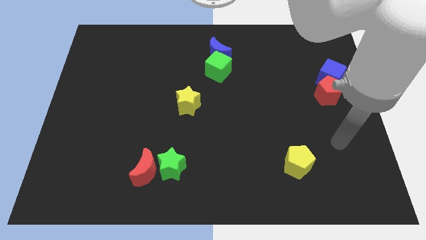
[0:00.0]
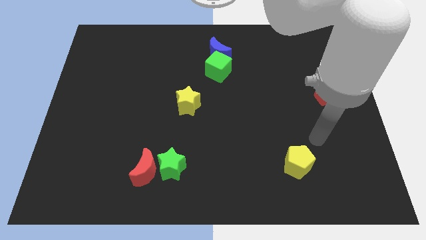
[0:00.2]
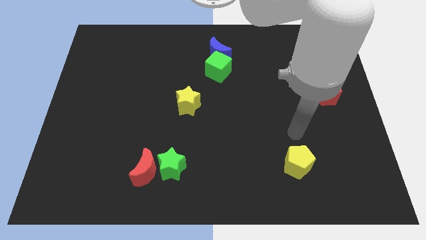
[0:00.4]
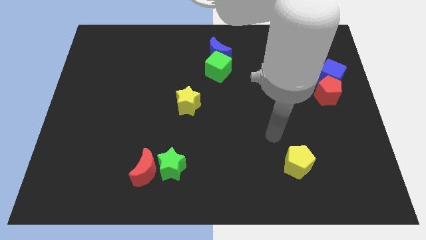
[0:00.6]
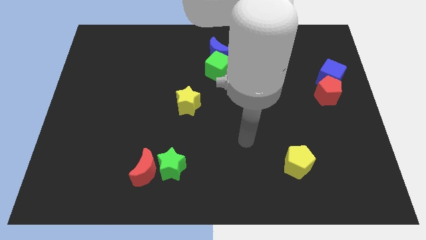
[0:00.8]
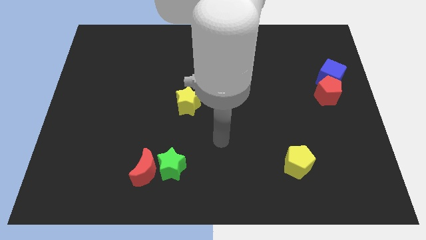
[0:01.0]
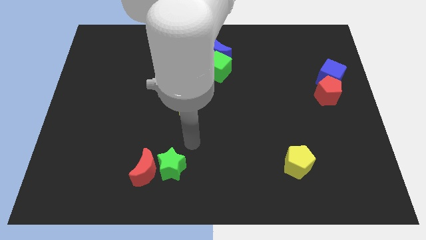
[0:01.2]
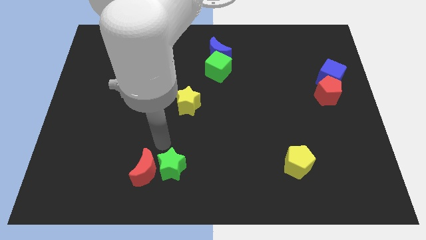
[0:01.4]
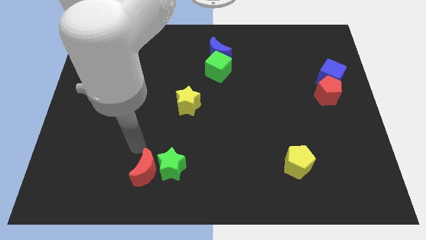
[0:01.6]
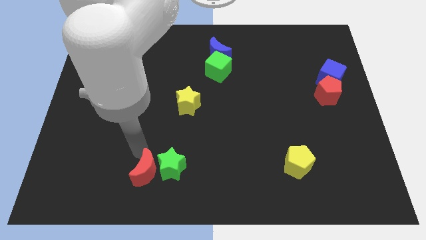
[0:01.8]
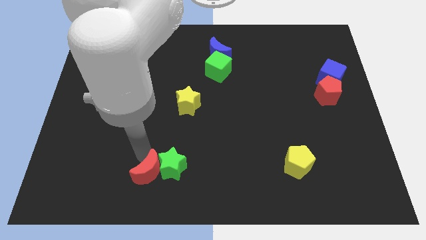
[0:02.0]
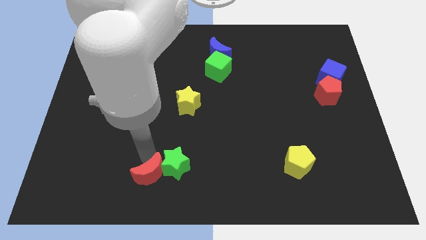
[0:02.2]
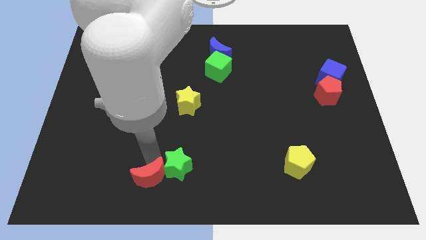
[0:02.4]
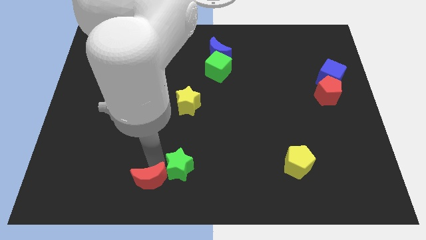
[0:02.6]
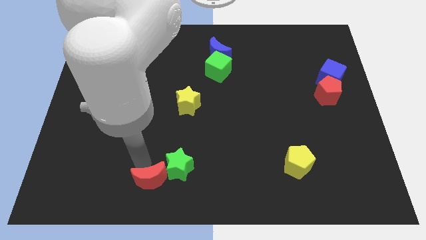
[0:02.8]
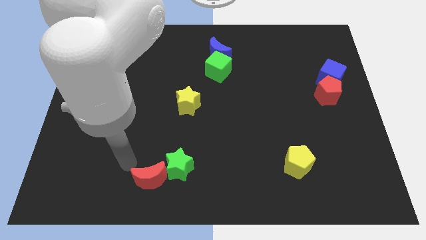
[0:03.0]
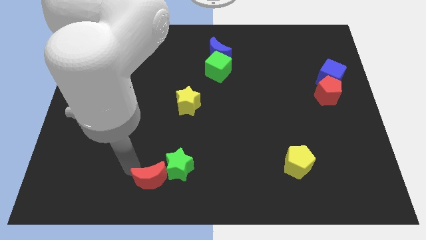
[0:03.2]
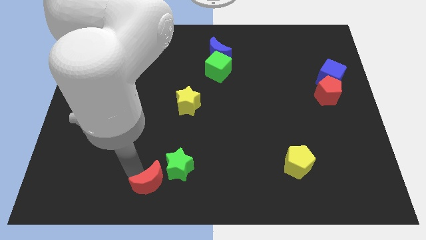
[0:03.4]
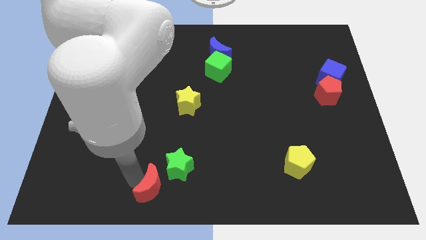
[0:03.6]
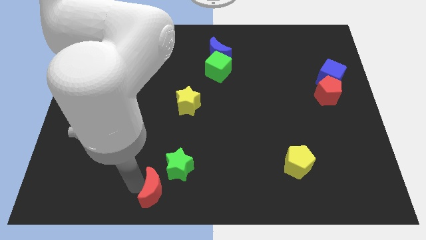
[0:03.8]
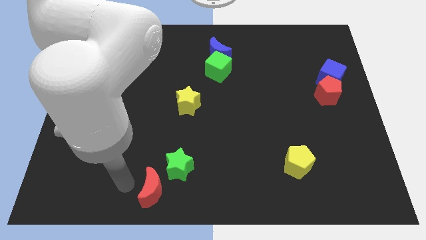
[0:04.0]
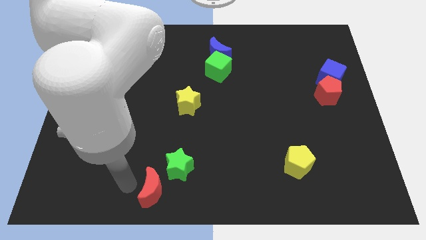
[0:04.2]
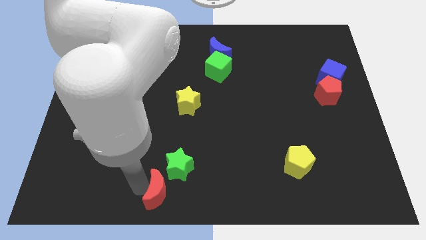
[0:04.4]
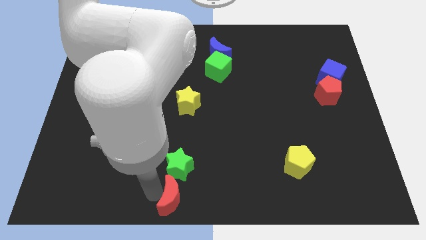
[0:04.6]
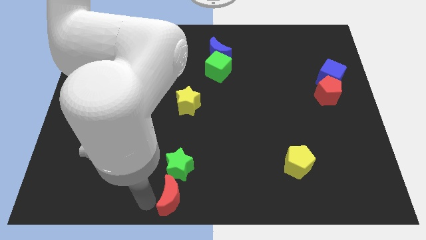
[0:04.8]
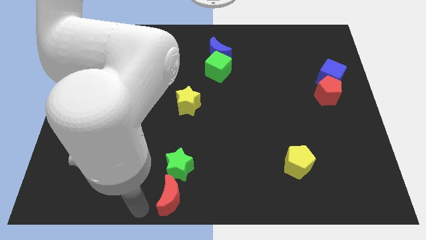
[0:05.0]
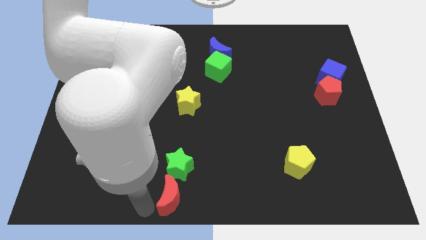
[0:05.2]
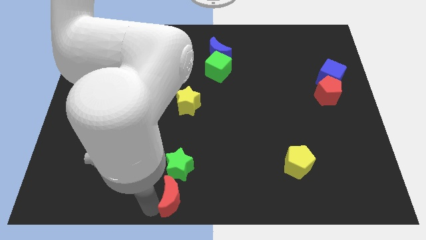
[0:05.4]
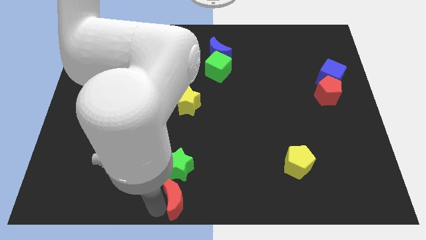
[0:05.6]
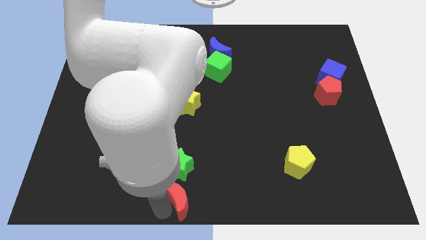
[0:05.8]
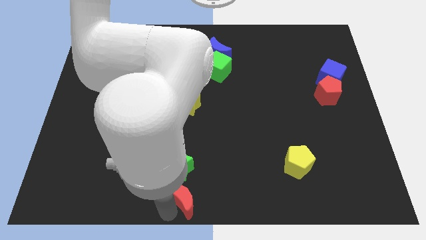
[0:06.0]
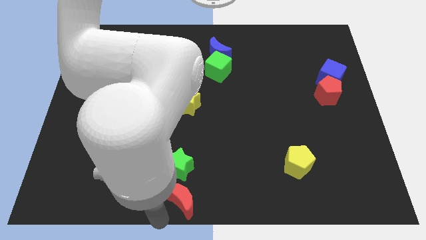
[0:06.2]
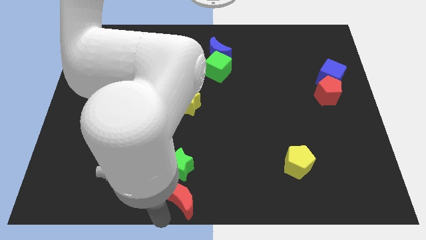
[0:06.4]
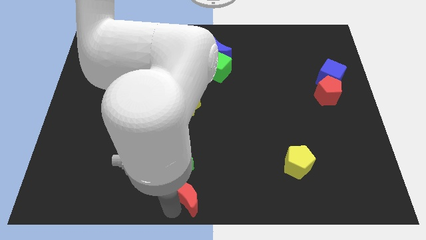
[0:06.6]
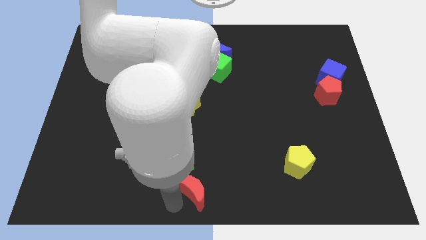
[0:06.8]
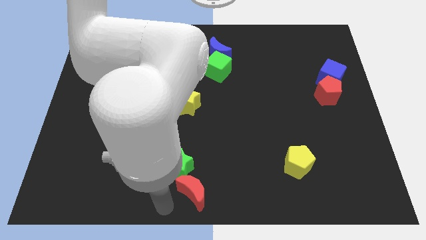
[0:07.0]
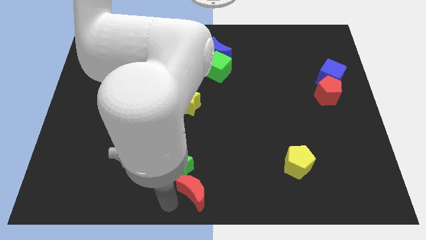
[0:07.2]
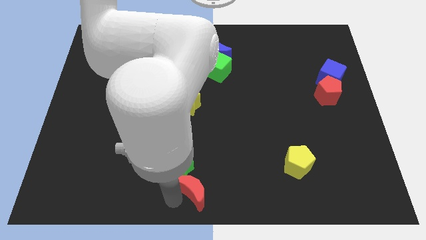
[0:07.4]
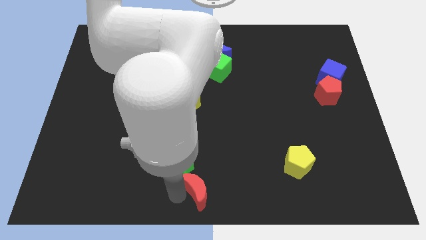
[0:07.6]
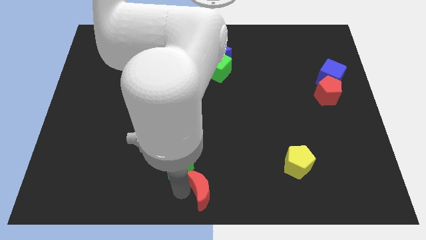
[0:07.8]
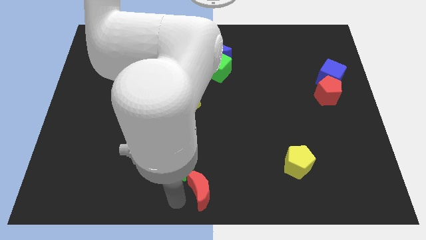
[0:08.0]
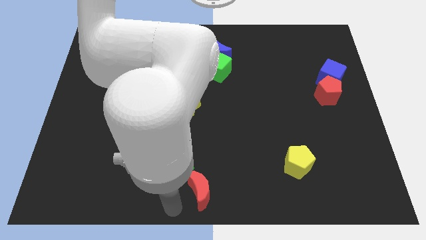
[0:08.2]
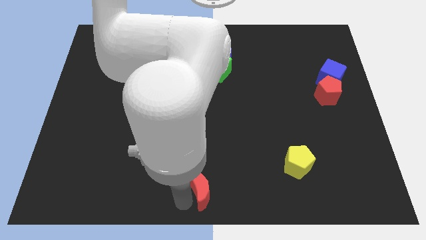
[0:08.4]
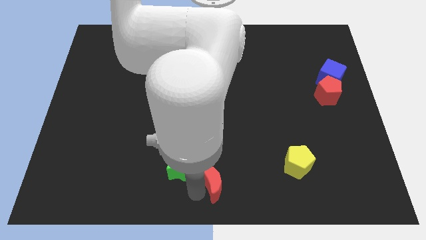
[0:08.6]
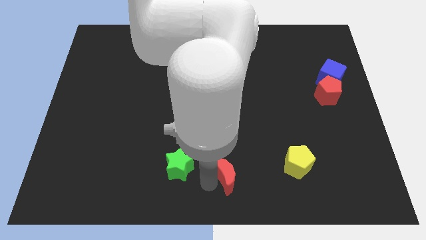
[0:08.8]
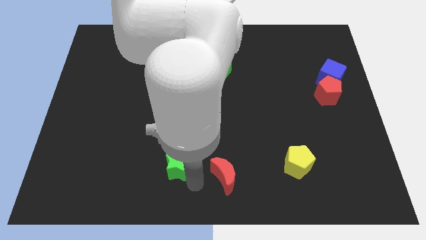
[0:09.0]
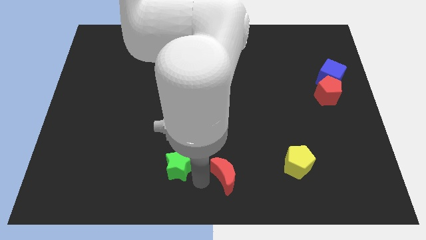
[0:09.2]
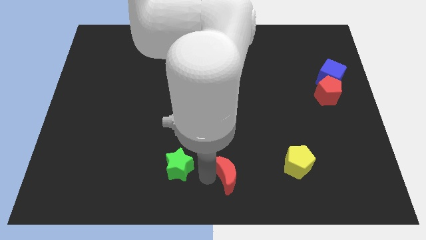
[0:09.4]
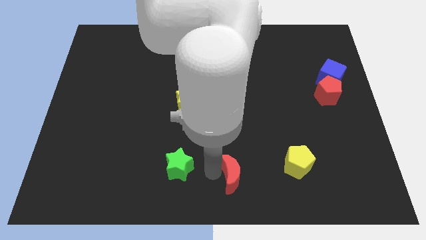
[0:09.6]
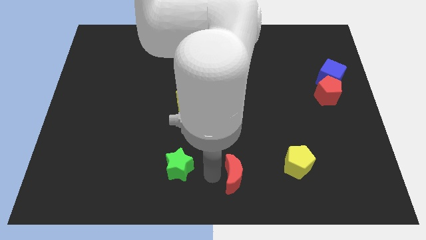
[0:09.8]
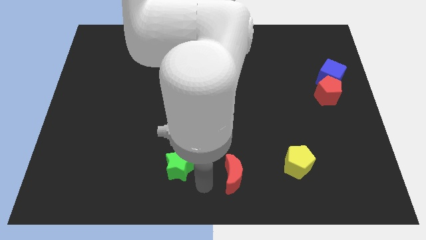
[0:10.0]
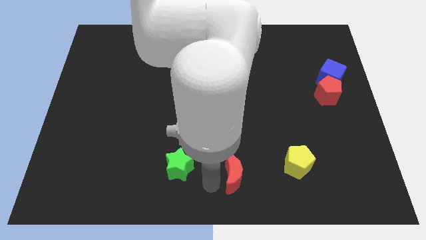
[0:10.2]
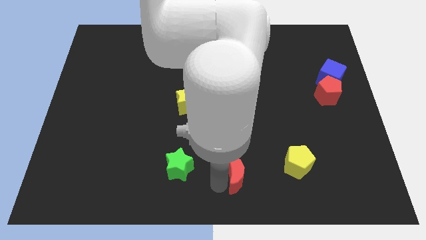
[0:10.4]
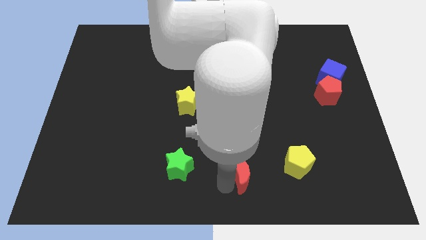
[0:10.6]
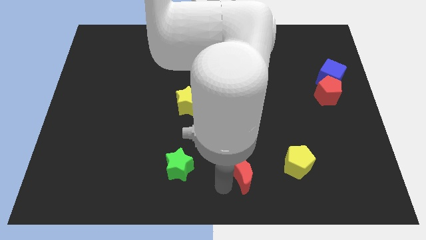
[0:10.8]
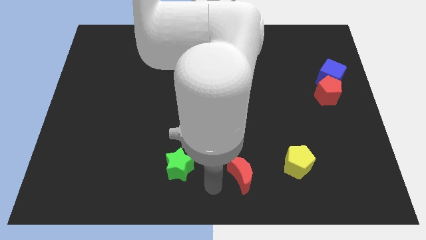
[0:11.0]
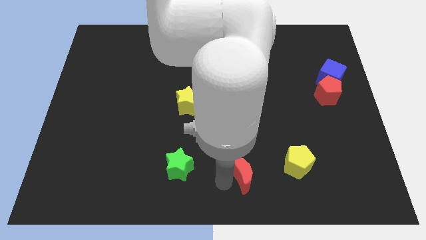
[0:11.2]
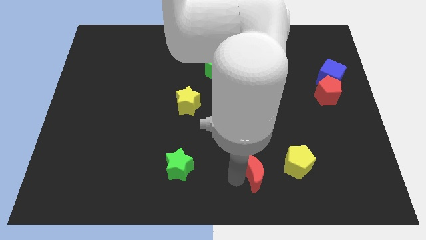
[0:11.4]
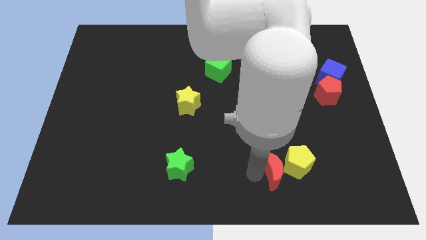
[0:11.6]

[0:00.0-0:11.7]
slide the red moon to the yellow pentagon
